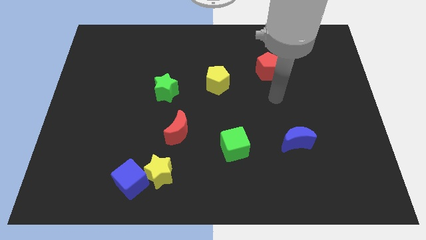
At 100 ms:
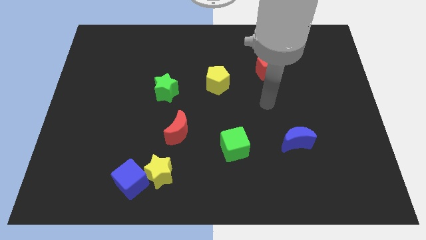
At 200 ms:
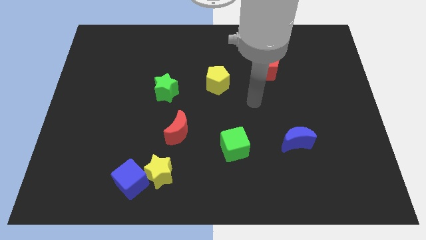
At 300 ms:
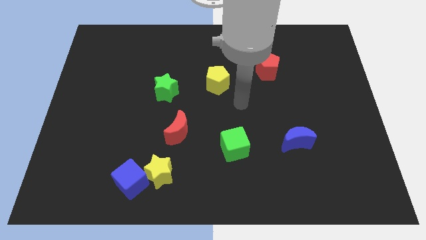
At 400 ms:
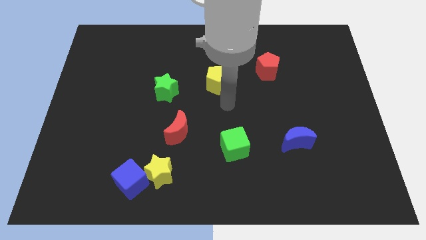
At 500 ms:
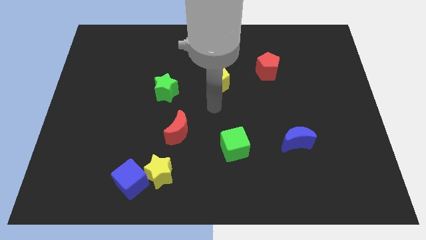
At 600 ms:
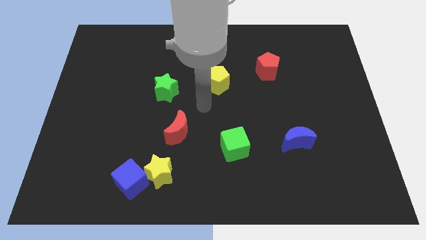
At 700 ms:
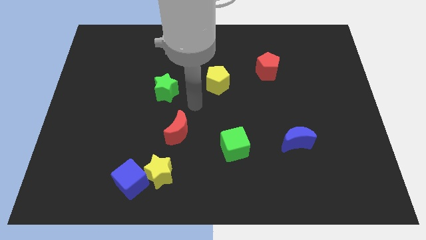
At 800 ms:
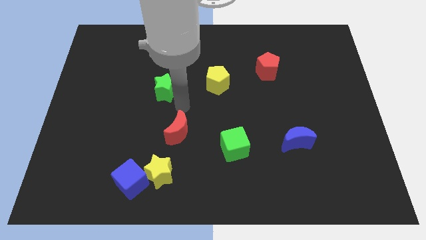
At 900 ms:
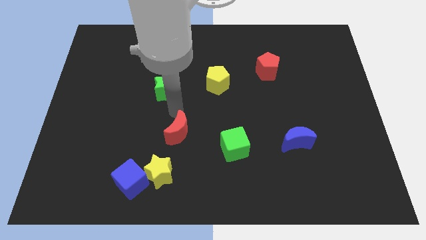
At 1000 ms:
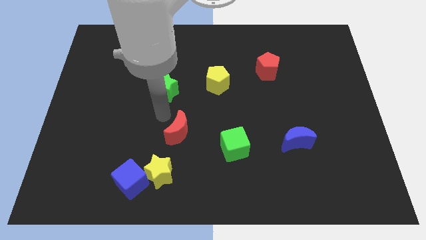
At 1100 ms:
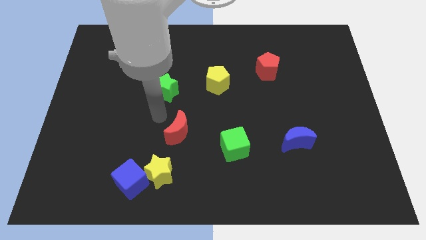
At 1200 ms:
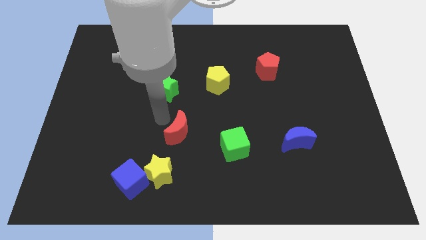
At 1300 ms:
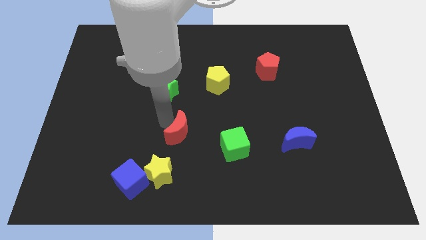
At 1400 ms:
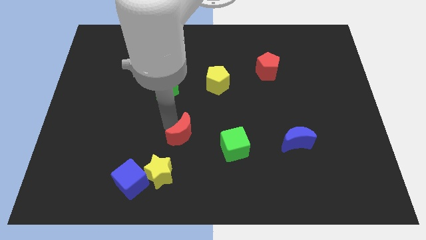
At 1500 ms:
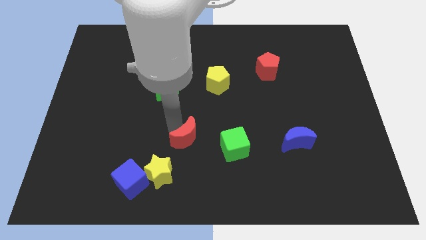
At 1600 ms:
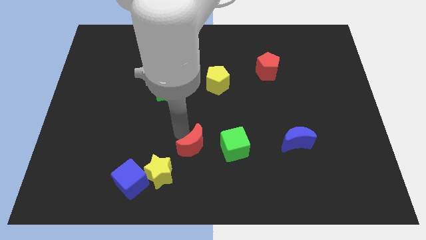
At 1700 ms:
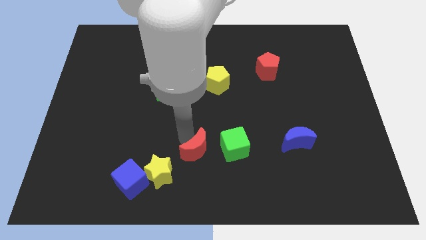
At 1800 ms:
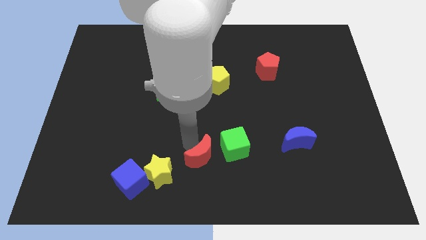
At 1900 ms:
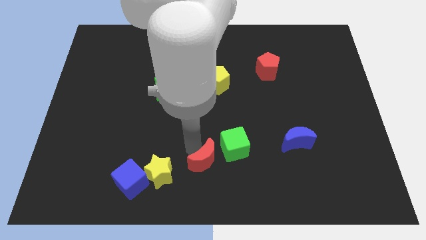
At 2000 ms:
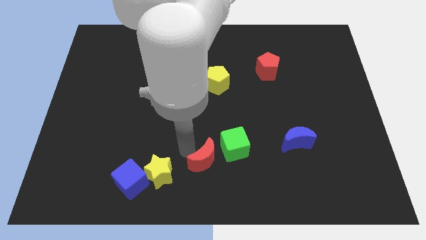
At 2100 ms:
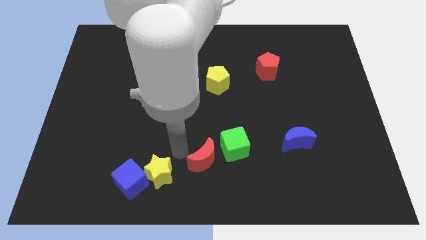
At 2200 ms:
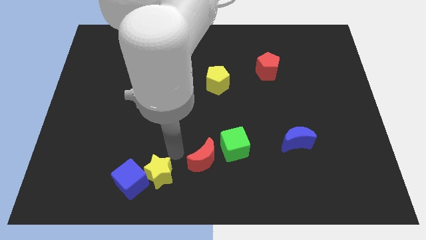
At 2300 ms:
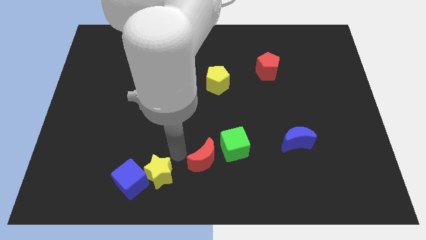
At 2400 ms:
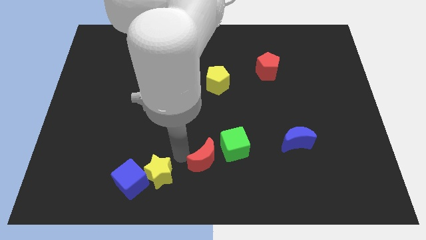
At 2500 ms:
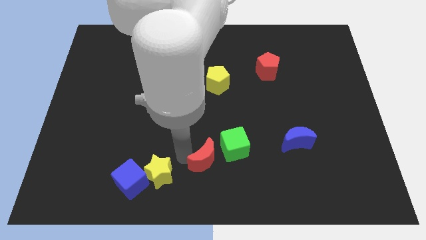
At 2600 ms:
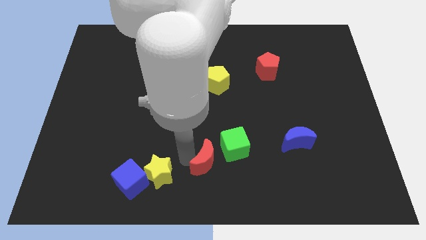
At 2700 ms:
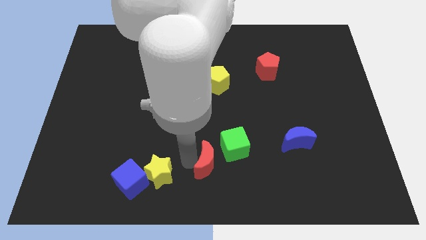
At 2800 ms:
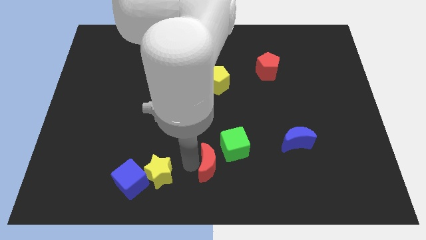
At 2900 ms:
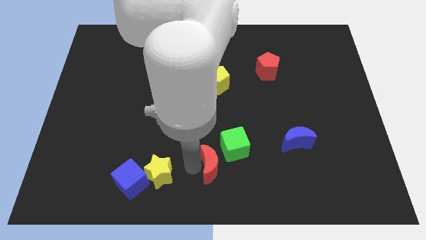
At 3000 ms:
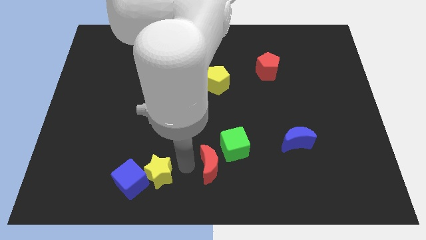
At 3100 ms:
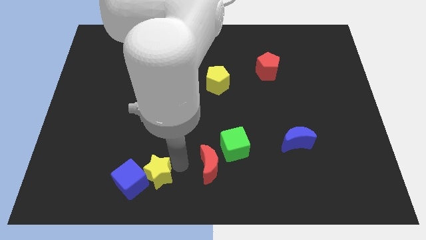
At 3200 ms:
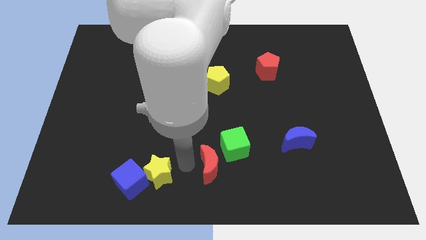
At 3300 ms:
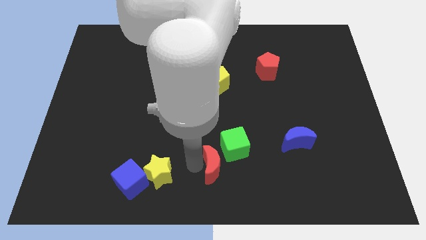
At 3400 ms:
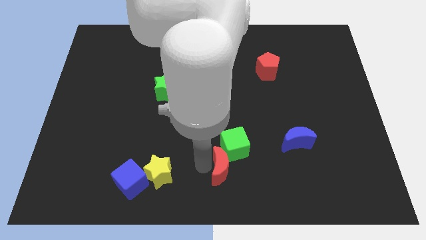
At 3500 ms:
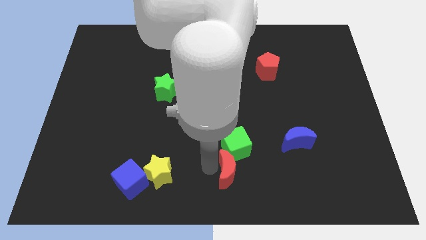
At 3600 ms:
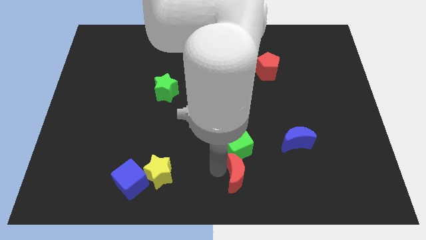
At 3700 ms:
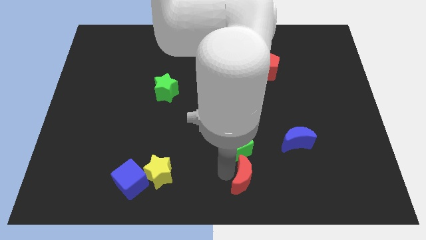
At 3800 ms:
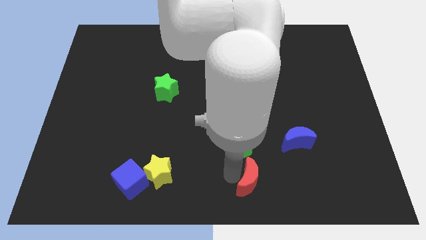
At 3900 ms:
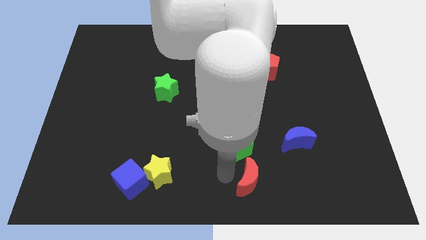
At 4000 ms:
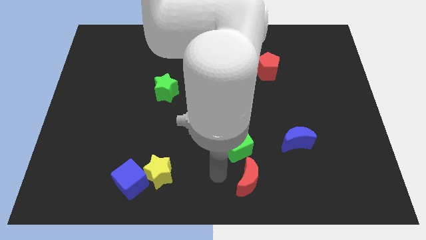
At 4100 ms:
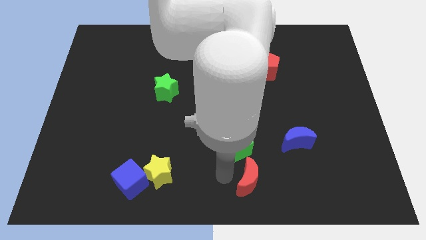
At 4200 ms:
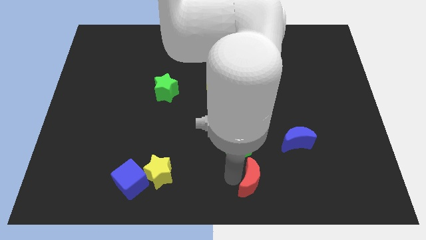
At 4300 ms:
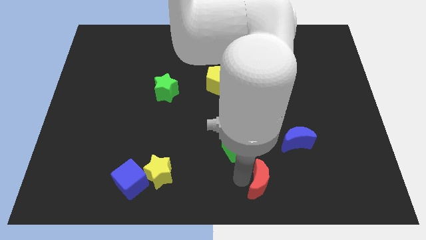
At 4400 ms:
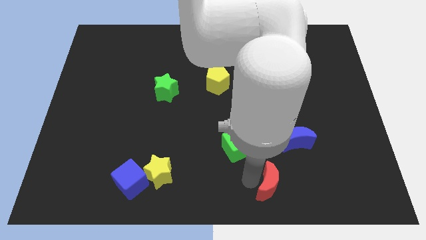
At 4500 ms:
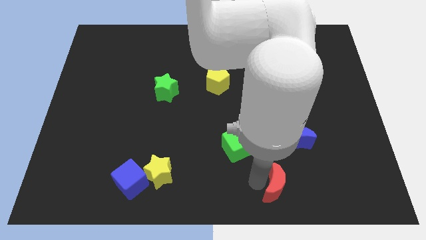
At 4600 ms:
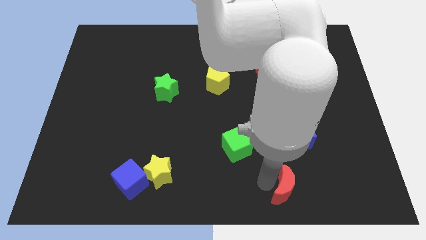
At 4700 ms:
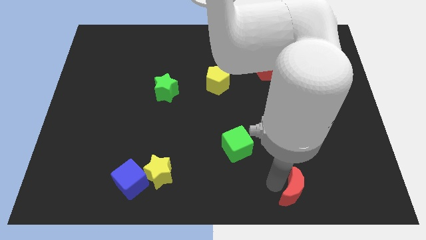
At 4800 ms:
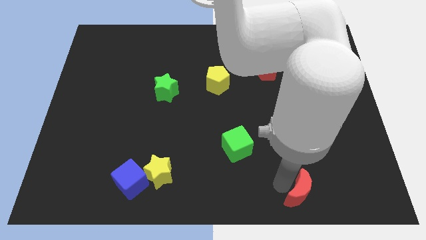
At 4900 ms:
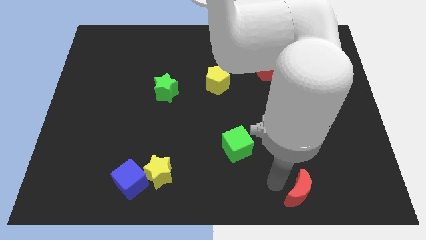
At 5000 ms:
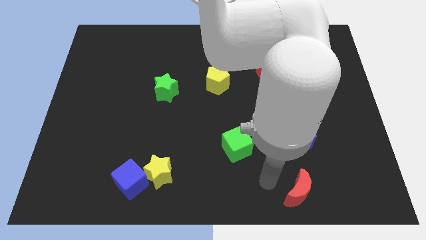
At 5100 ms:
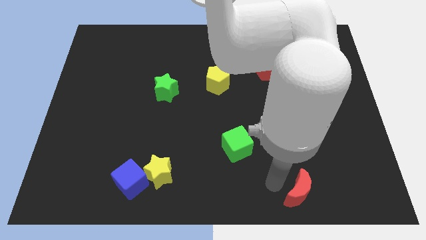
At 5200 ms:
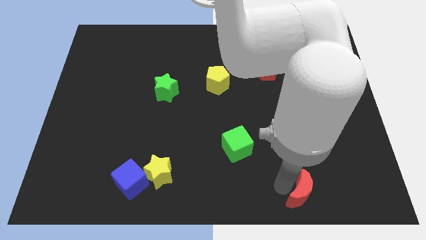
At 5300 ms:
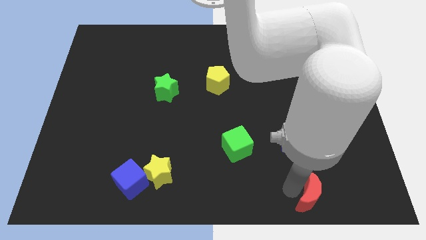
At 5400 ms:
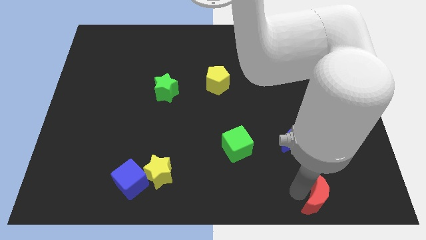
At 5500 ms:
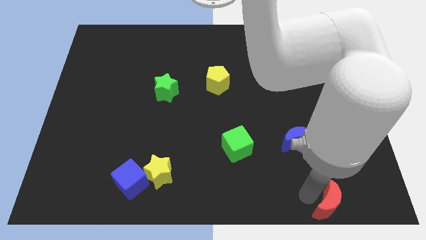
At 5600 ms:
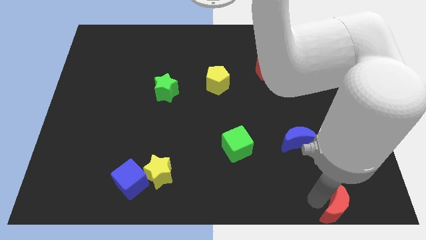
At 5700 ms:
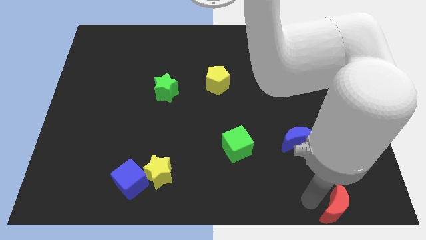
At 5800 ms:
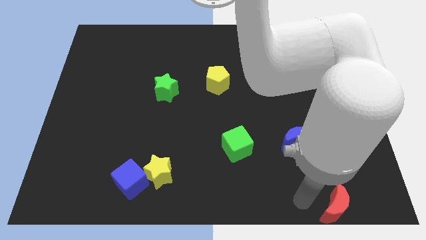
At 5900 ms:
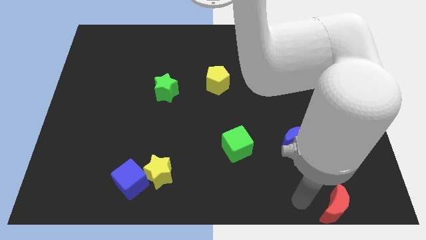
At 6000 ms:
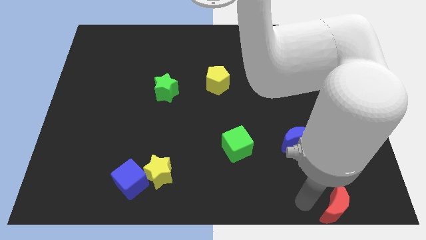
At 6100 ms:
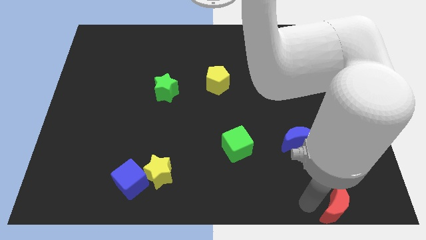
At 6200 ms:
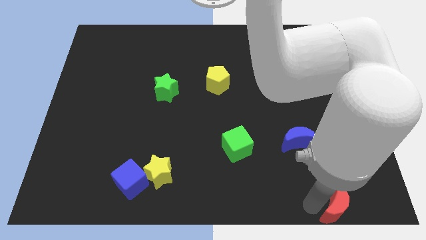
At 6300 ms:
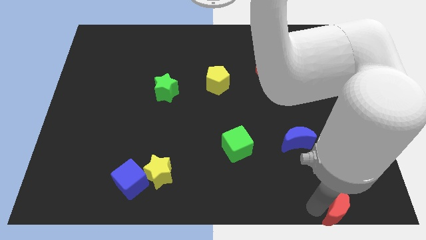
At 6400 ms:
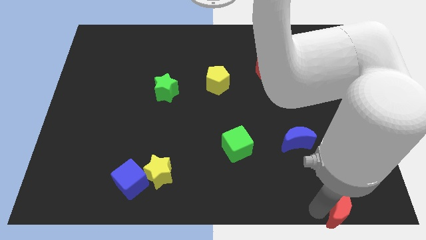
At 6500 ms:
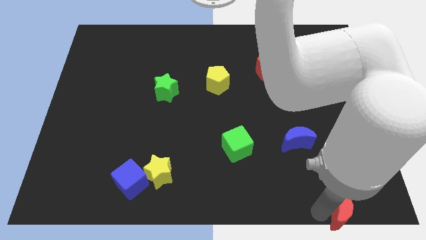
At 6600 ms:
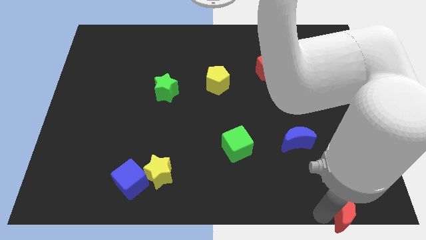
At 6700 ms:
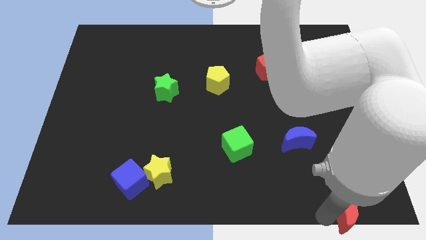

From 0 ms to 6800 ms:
move the red moon to the lower right corner
